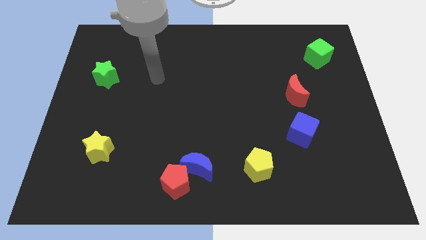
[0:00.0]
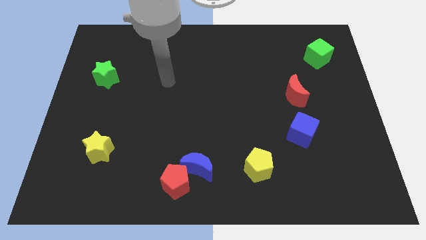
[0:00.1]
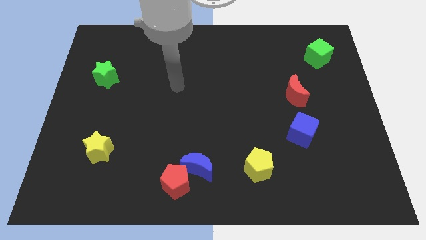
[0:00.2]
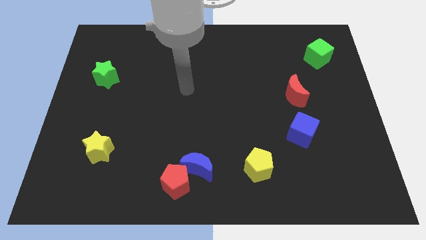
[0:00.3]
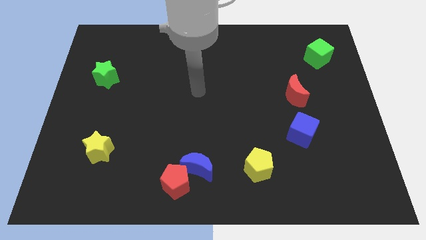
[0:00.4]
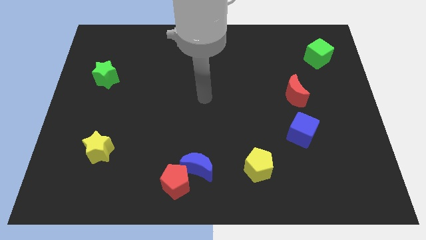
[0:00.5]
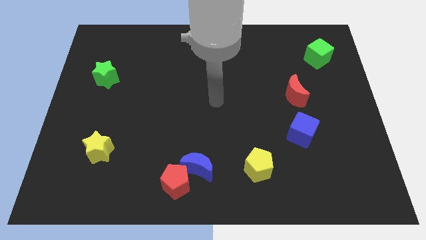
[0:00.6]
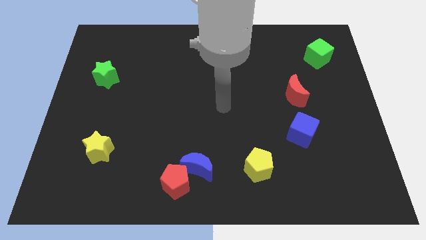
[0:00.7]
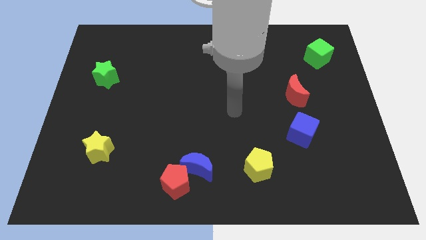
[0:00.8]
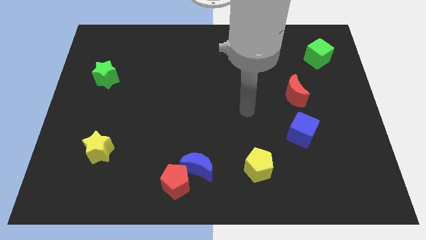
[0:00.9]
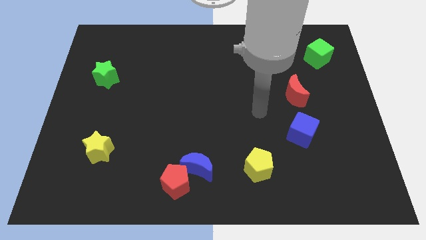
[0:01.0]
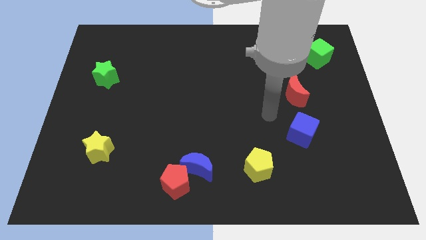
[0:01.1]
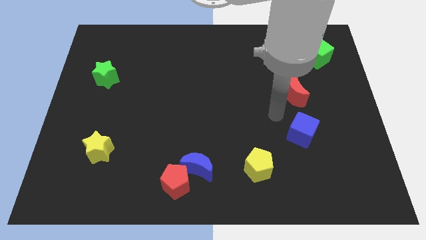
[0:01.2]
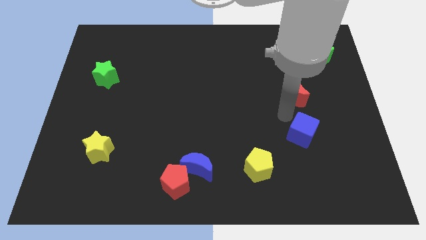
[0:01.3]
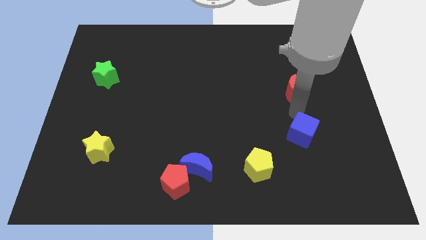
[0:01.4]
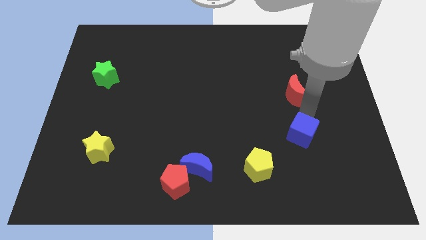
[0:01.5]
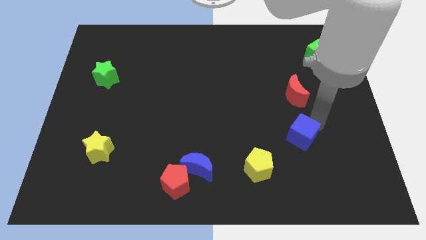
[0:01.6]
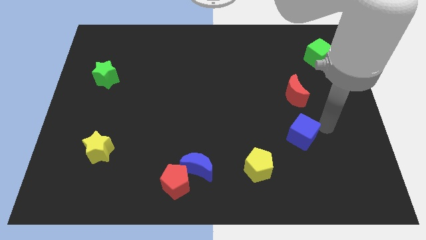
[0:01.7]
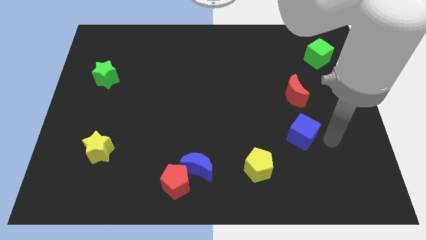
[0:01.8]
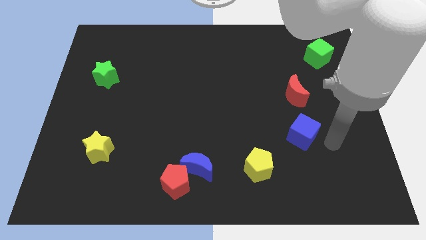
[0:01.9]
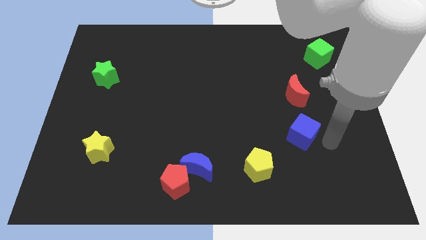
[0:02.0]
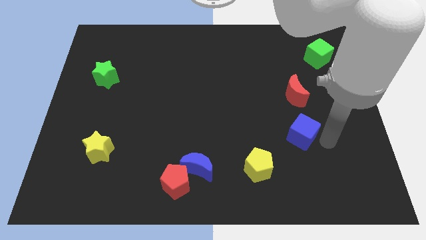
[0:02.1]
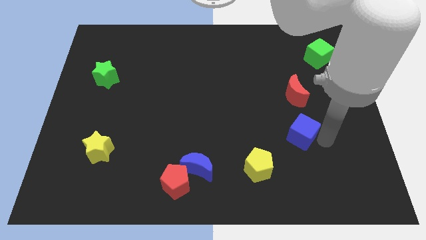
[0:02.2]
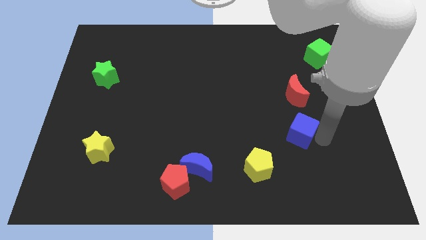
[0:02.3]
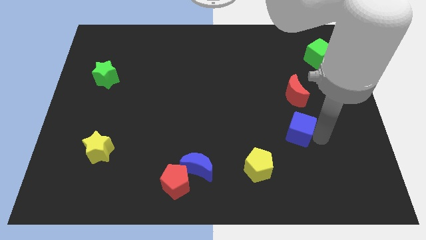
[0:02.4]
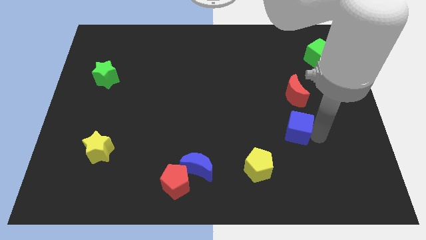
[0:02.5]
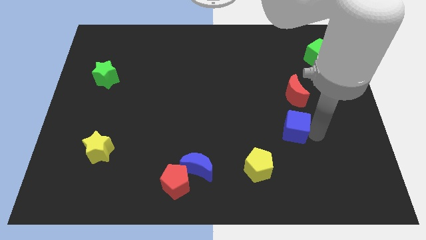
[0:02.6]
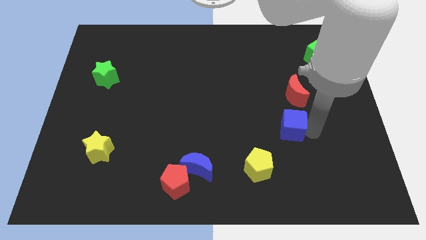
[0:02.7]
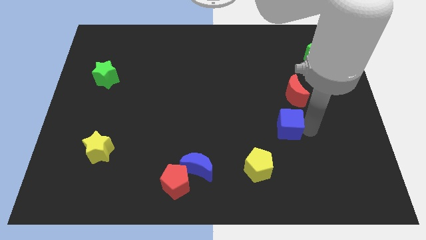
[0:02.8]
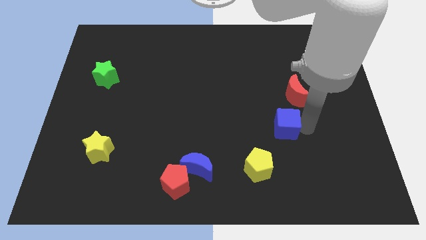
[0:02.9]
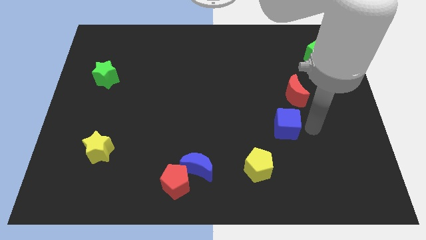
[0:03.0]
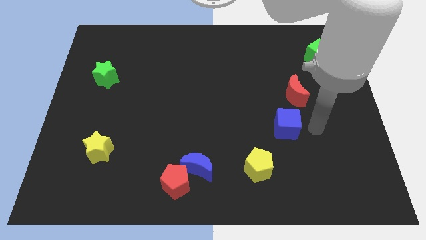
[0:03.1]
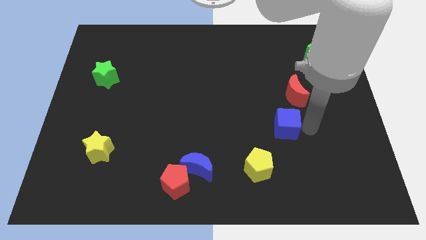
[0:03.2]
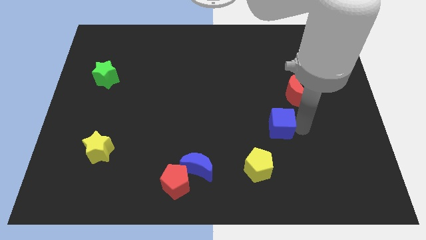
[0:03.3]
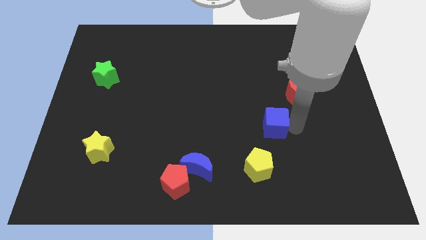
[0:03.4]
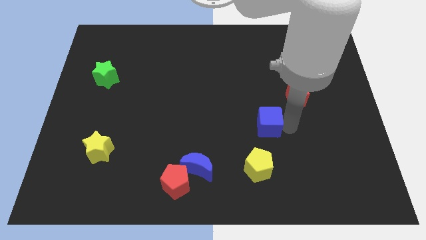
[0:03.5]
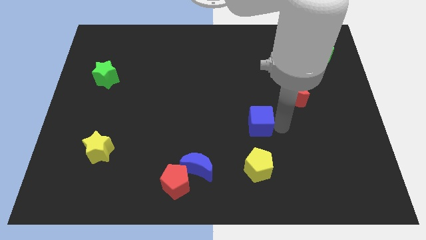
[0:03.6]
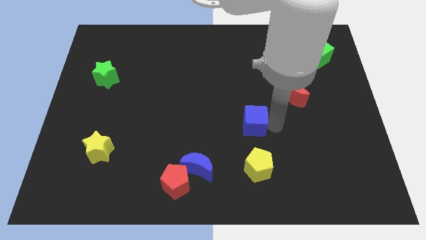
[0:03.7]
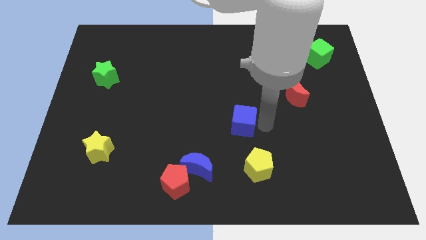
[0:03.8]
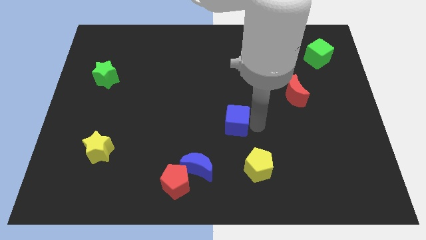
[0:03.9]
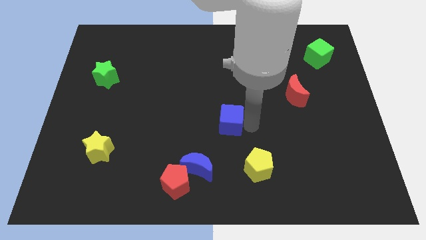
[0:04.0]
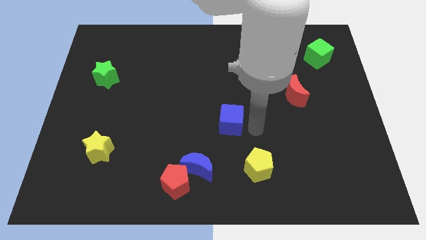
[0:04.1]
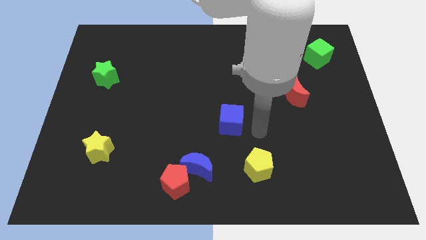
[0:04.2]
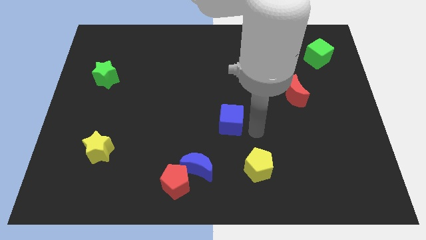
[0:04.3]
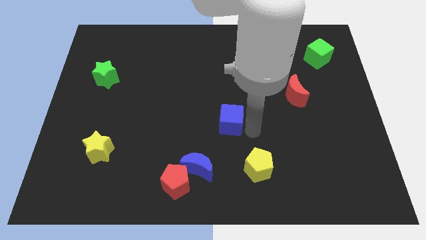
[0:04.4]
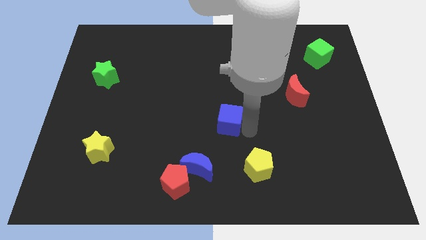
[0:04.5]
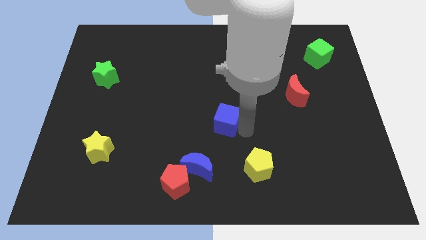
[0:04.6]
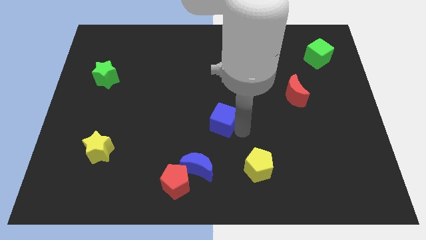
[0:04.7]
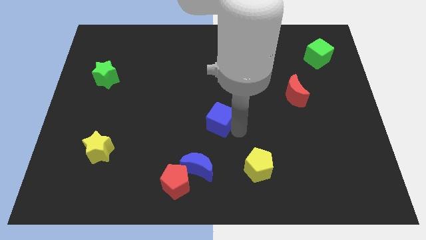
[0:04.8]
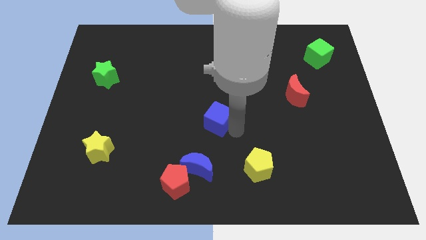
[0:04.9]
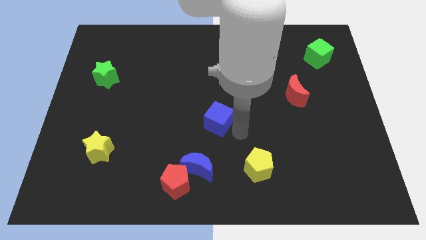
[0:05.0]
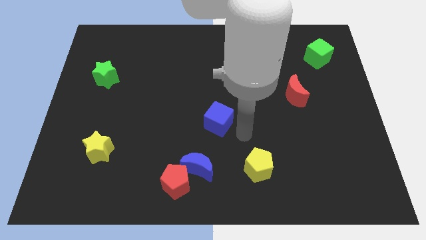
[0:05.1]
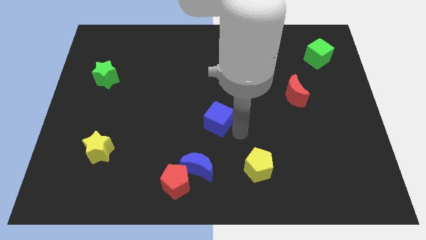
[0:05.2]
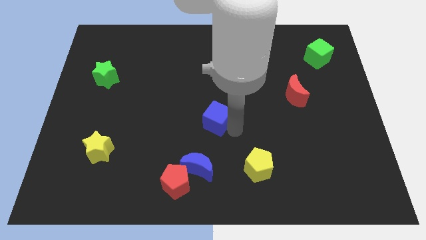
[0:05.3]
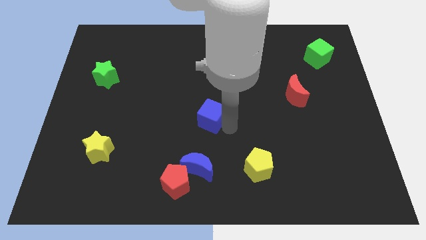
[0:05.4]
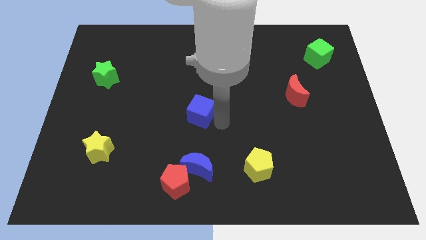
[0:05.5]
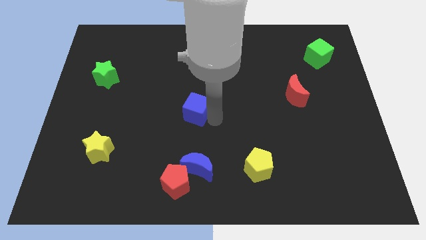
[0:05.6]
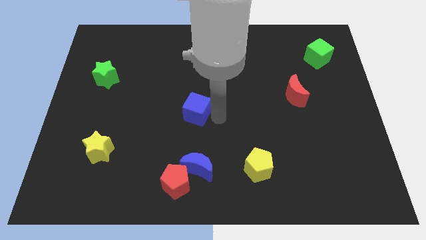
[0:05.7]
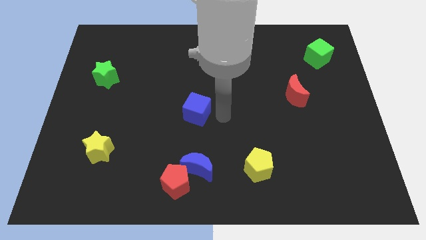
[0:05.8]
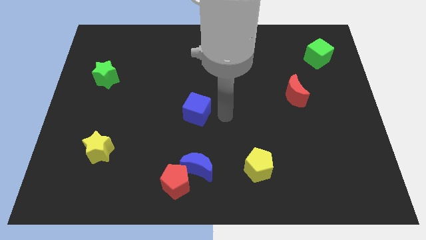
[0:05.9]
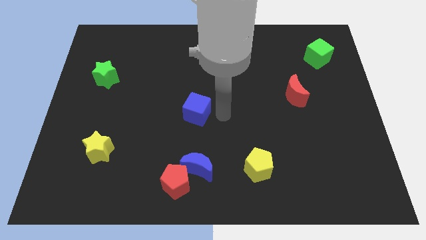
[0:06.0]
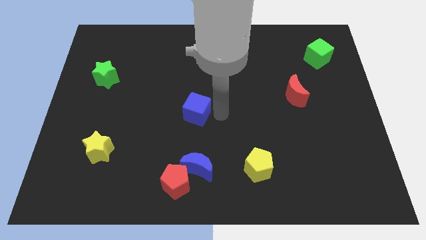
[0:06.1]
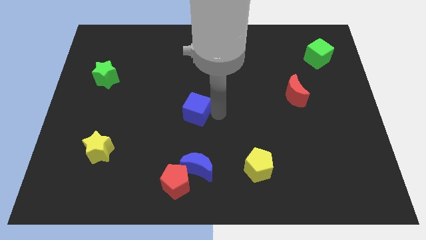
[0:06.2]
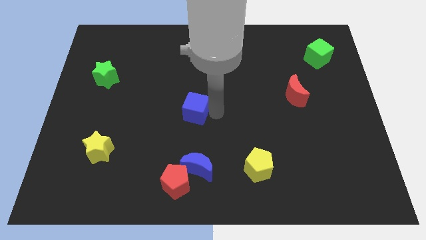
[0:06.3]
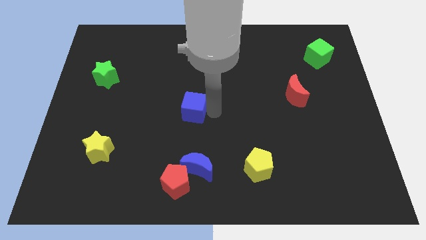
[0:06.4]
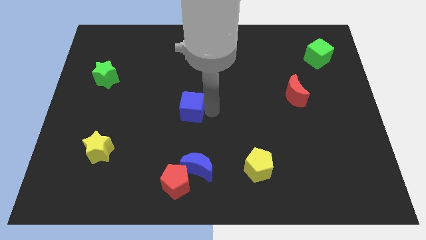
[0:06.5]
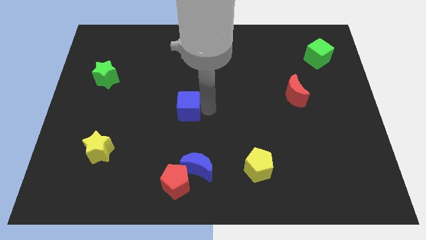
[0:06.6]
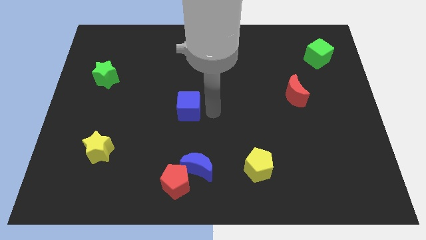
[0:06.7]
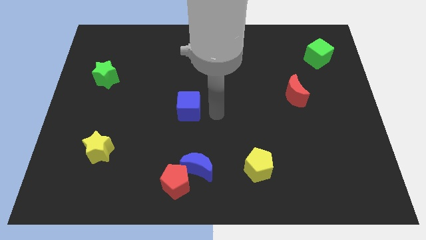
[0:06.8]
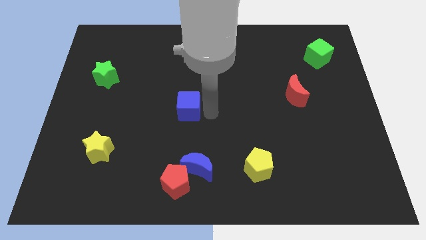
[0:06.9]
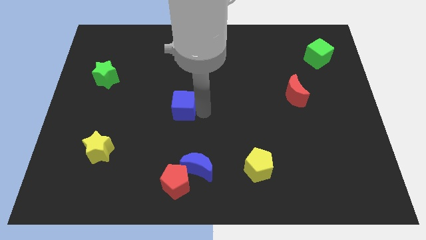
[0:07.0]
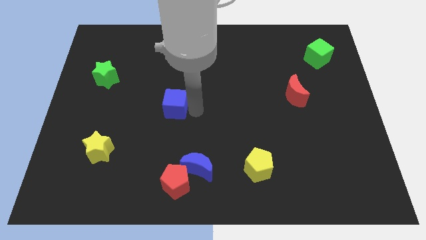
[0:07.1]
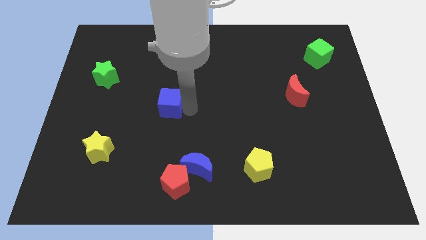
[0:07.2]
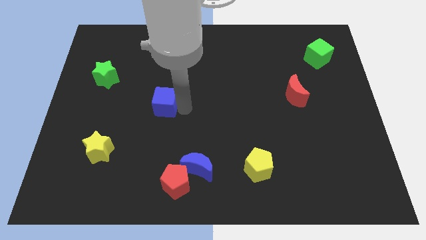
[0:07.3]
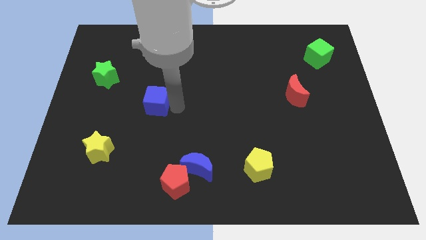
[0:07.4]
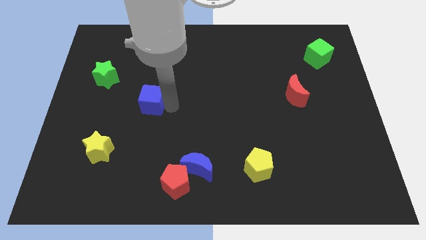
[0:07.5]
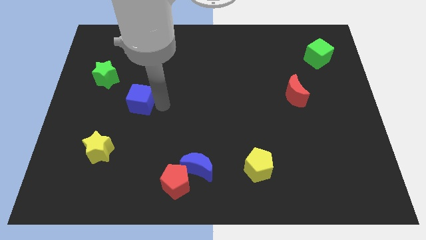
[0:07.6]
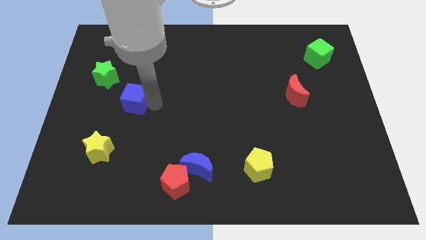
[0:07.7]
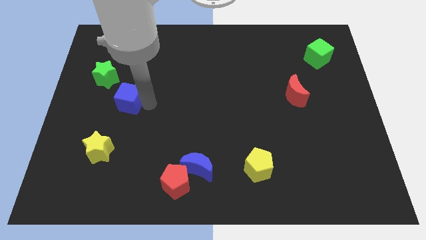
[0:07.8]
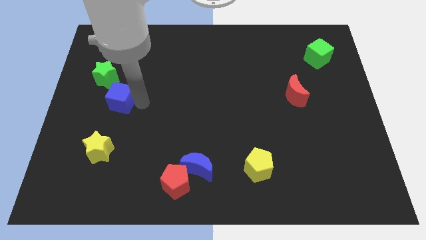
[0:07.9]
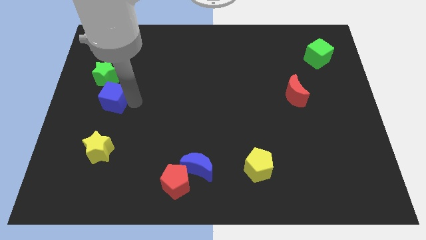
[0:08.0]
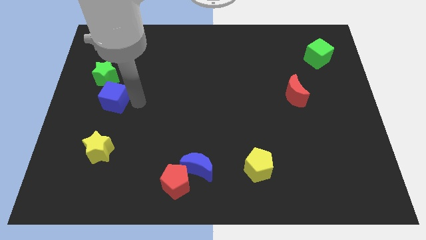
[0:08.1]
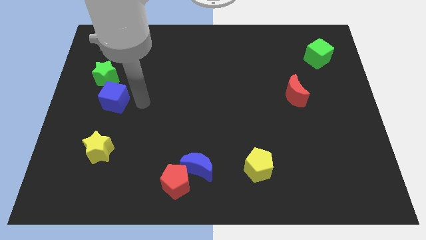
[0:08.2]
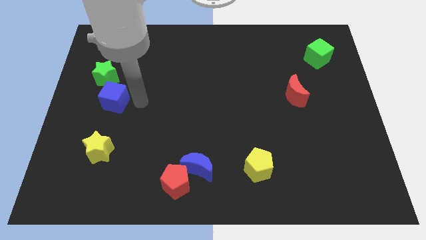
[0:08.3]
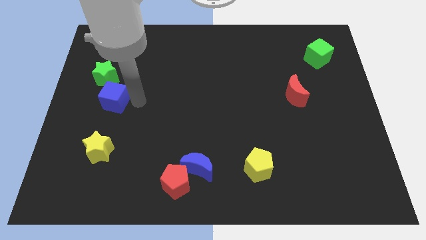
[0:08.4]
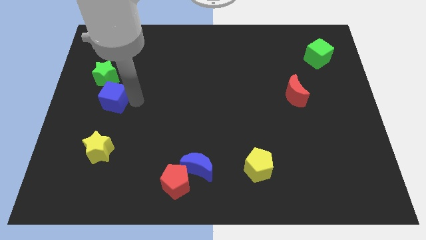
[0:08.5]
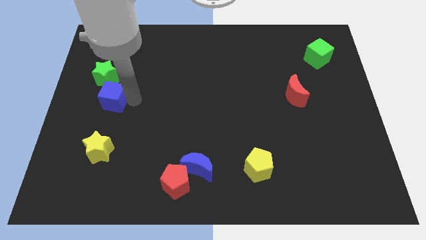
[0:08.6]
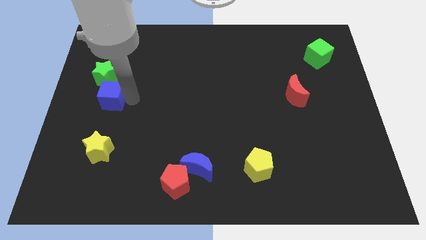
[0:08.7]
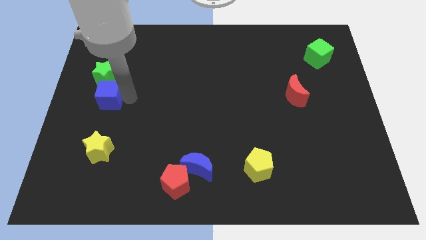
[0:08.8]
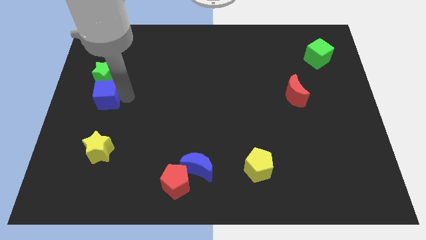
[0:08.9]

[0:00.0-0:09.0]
put the blue cube to the center left
